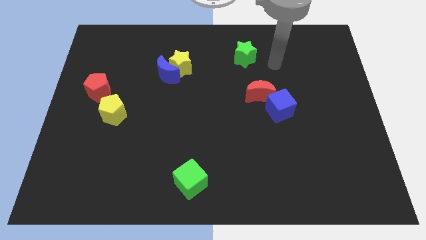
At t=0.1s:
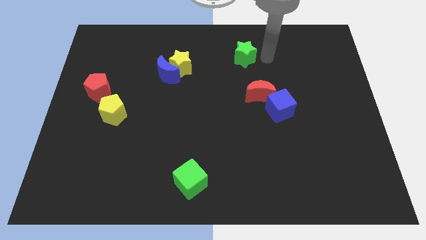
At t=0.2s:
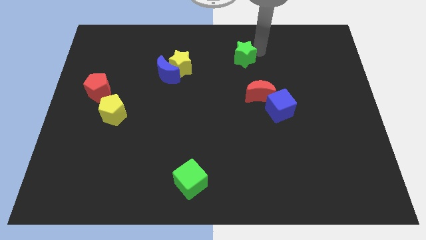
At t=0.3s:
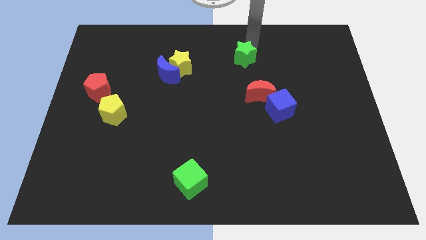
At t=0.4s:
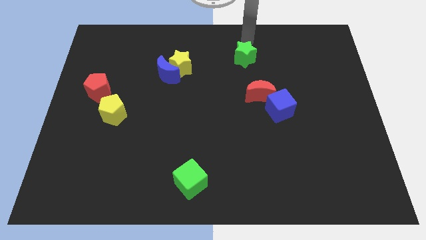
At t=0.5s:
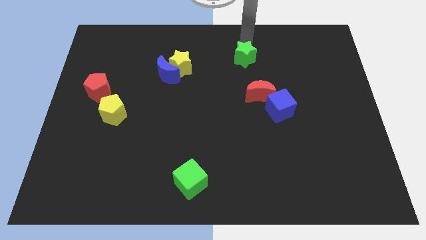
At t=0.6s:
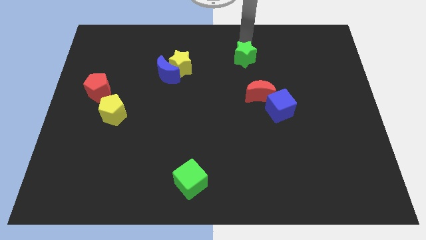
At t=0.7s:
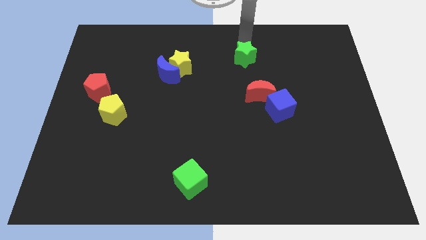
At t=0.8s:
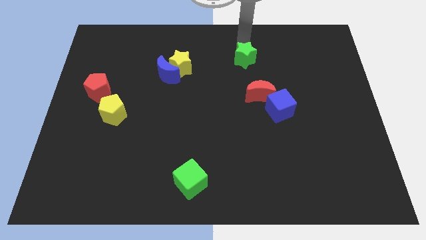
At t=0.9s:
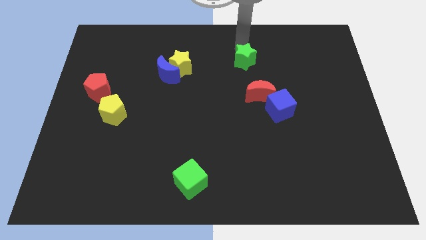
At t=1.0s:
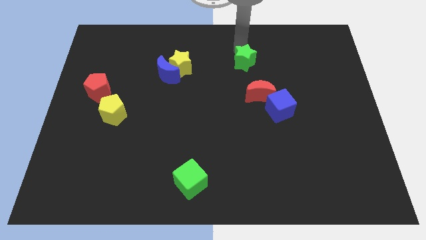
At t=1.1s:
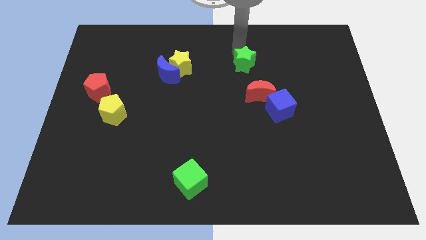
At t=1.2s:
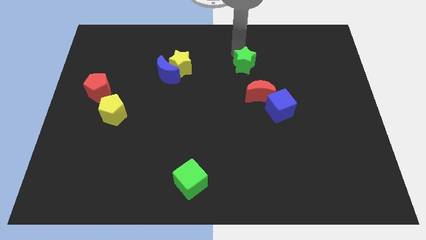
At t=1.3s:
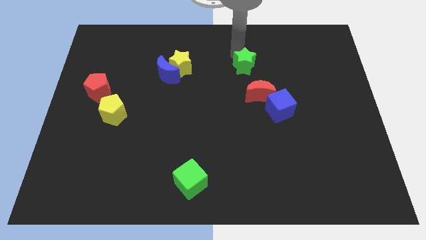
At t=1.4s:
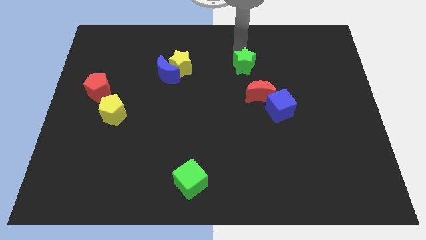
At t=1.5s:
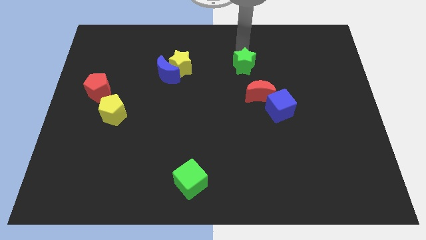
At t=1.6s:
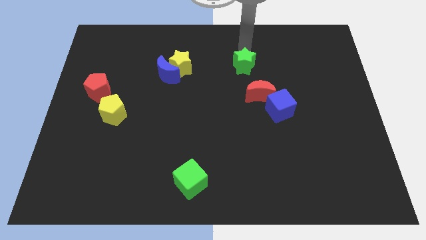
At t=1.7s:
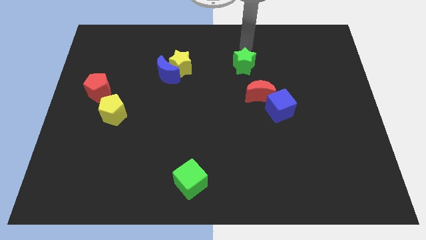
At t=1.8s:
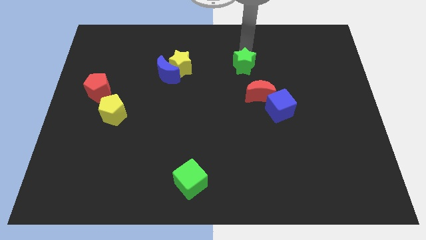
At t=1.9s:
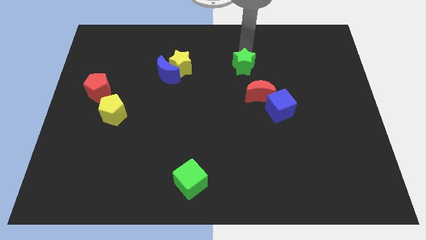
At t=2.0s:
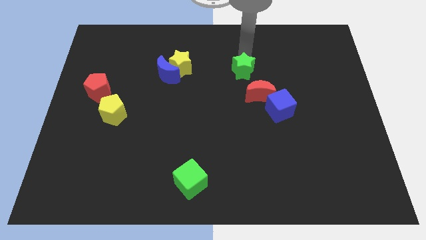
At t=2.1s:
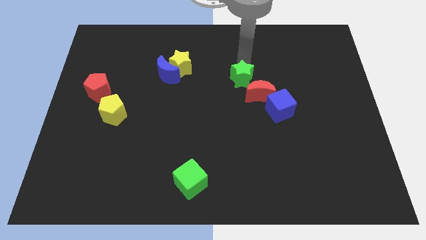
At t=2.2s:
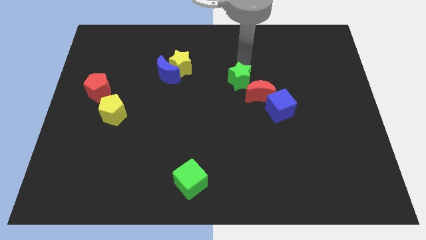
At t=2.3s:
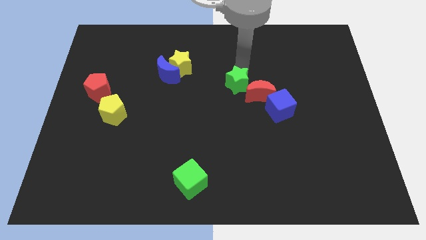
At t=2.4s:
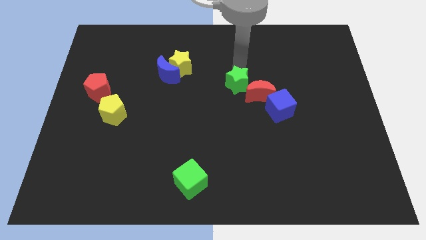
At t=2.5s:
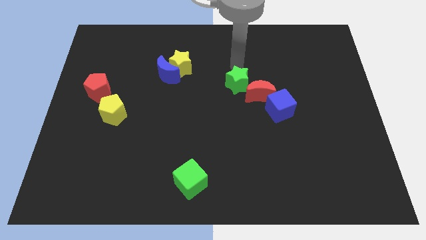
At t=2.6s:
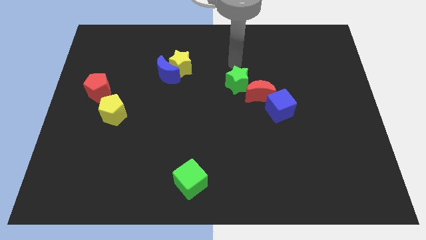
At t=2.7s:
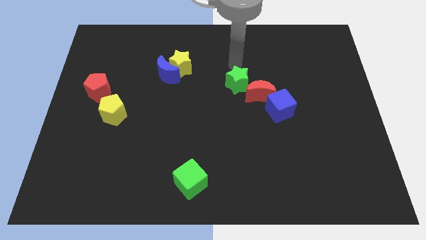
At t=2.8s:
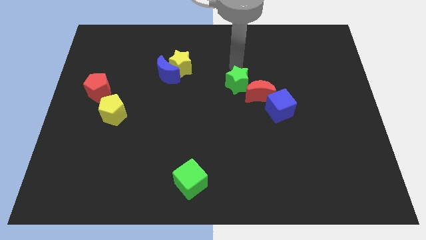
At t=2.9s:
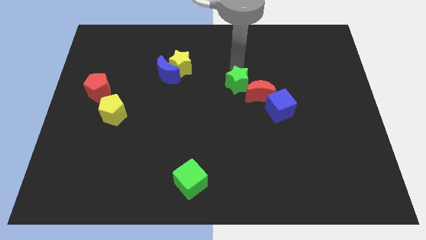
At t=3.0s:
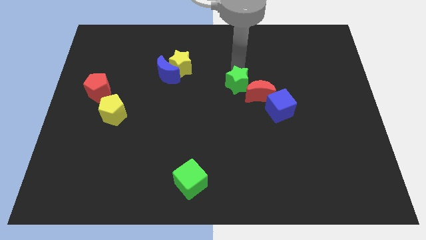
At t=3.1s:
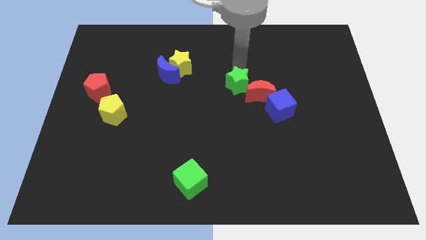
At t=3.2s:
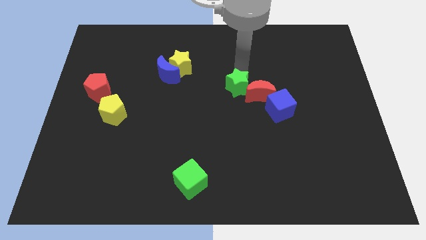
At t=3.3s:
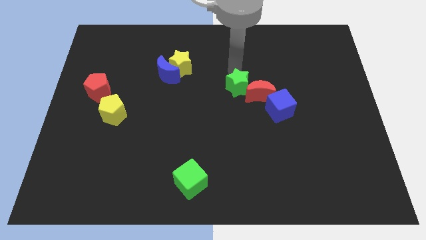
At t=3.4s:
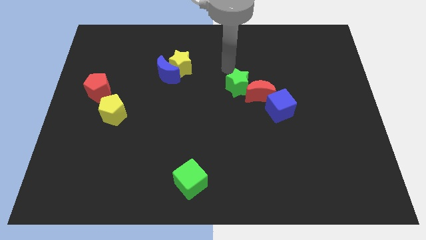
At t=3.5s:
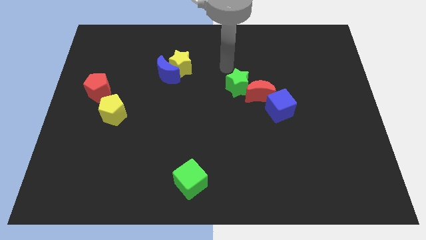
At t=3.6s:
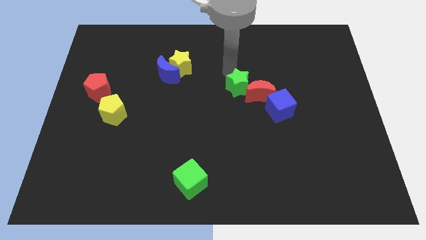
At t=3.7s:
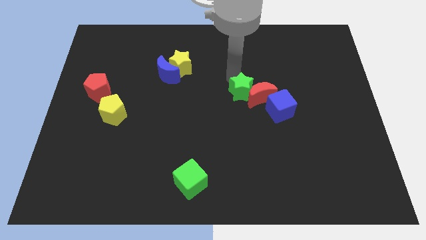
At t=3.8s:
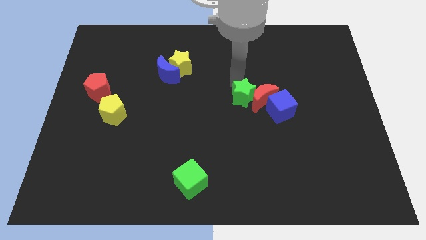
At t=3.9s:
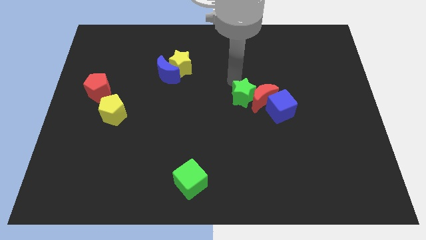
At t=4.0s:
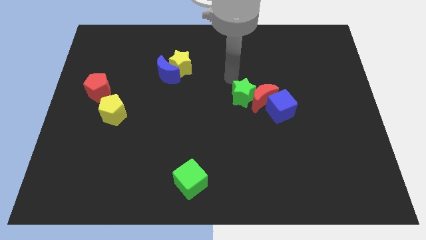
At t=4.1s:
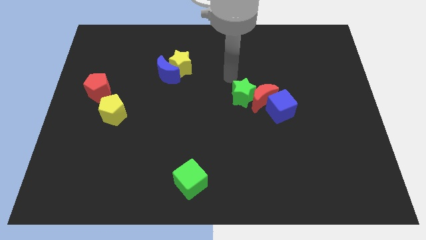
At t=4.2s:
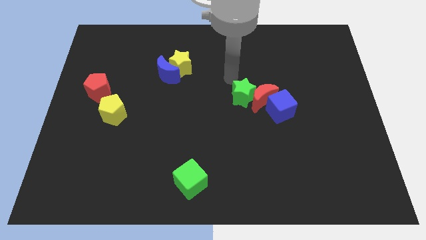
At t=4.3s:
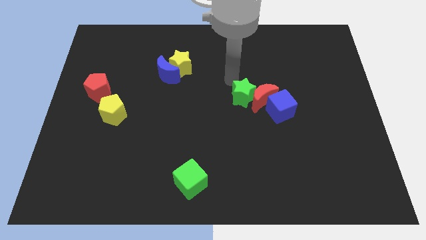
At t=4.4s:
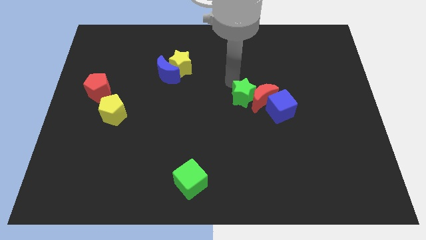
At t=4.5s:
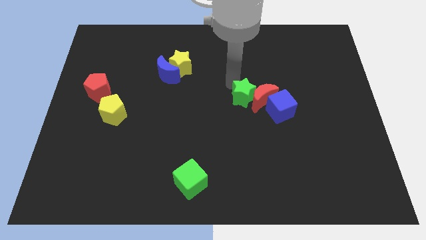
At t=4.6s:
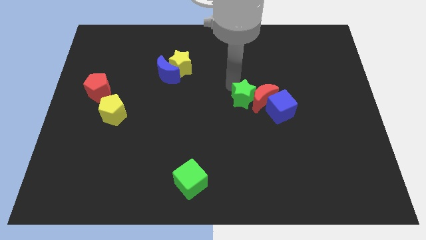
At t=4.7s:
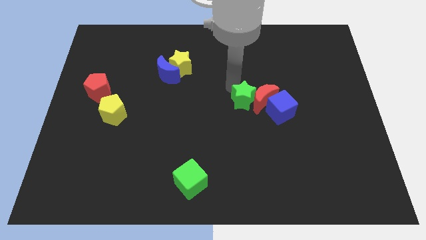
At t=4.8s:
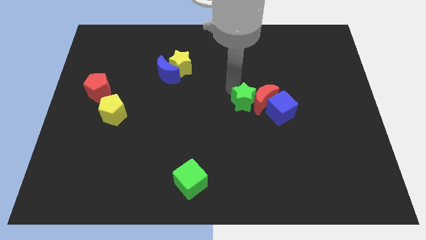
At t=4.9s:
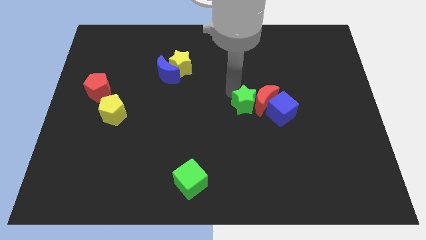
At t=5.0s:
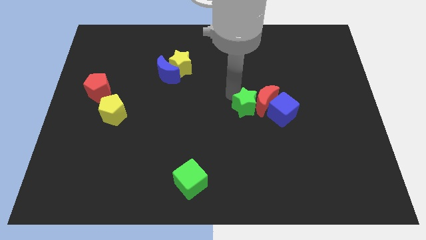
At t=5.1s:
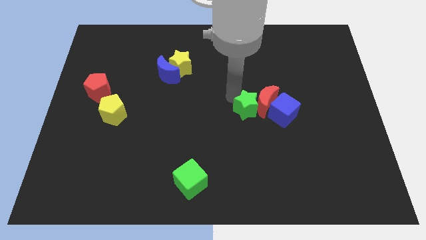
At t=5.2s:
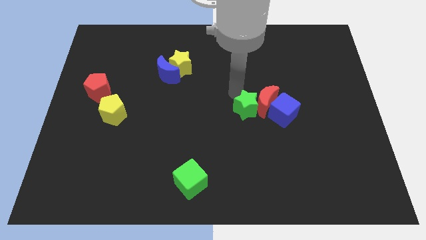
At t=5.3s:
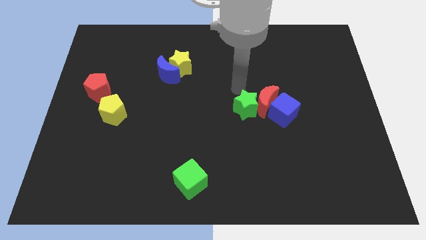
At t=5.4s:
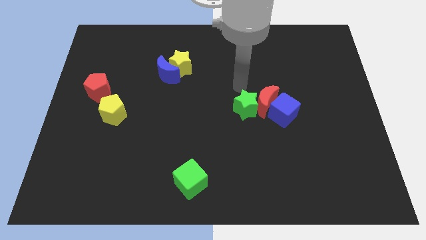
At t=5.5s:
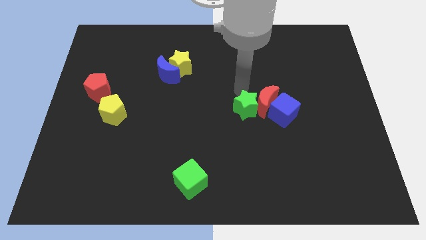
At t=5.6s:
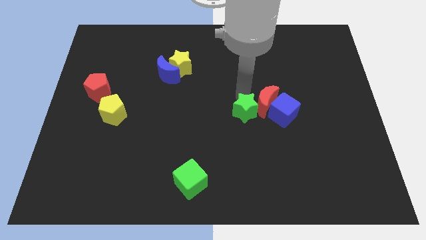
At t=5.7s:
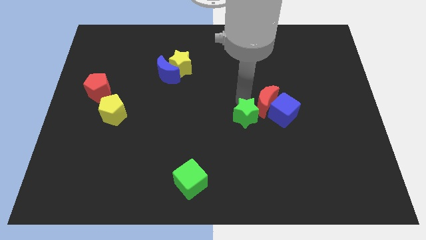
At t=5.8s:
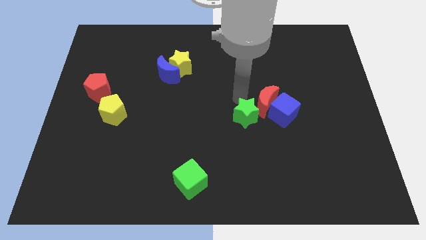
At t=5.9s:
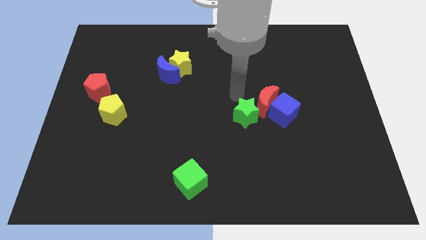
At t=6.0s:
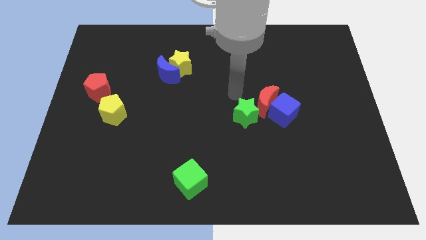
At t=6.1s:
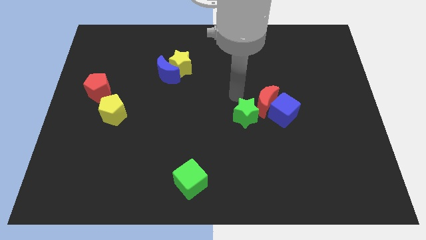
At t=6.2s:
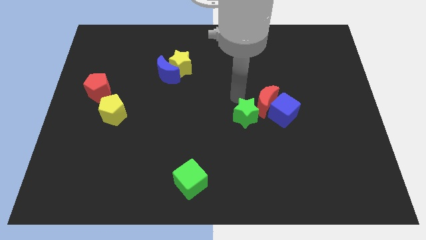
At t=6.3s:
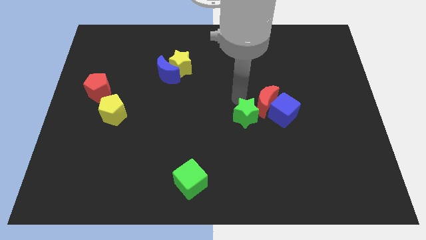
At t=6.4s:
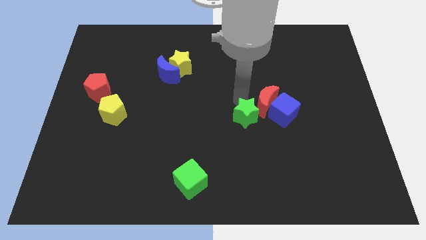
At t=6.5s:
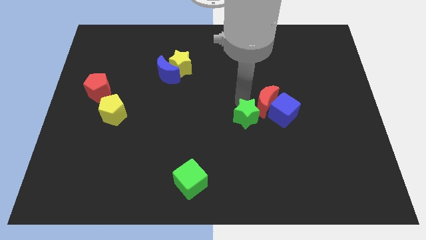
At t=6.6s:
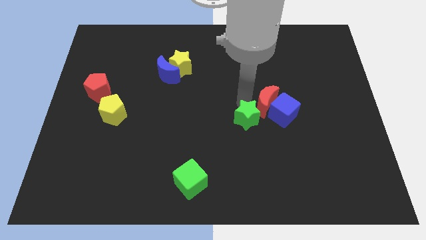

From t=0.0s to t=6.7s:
push the green star downwards

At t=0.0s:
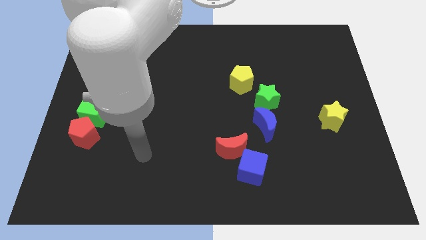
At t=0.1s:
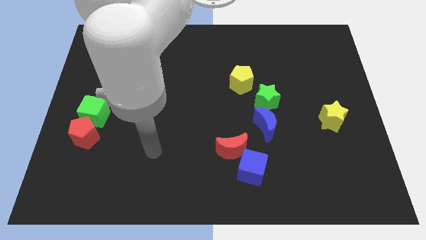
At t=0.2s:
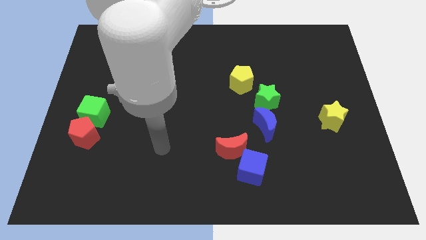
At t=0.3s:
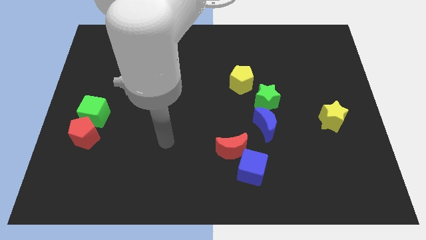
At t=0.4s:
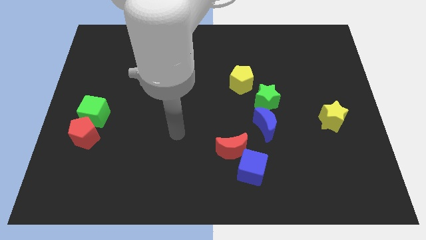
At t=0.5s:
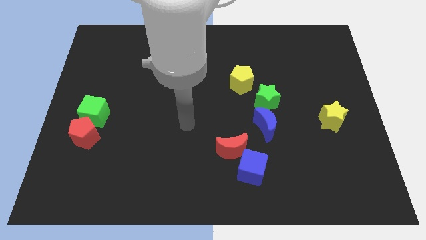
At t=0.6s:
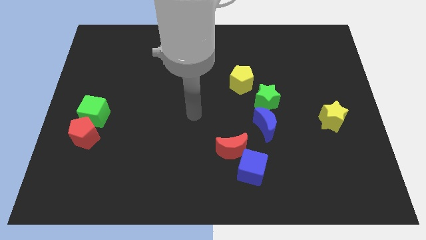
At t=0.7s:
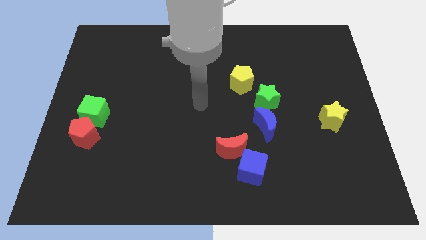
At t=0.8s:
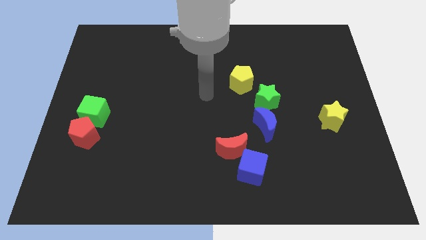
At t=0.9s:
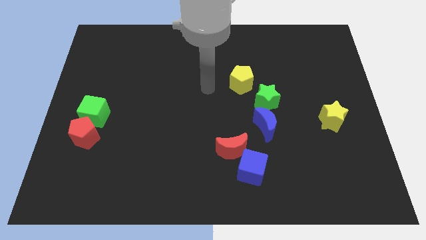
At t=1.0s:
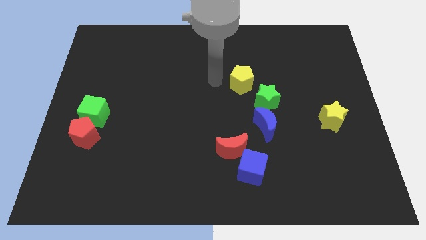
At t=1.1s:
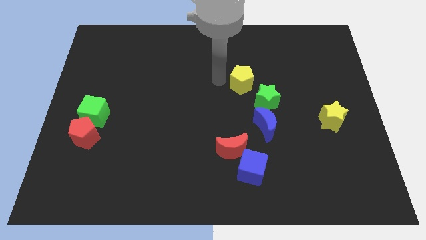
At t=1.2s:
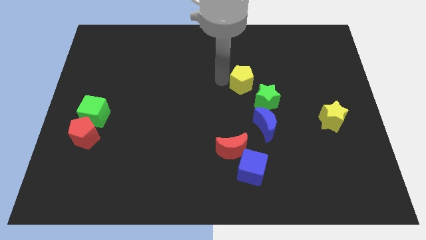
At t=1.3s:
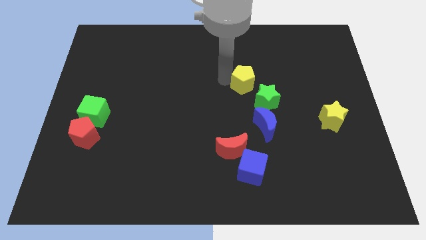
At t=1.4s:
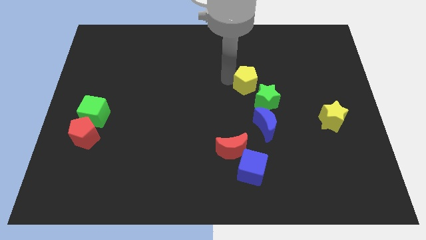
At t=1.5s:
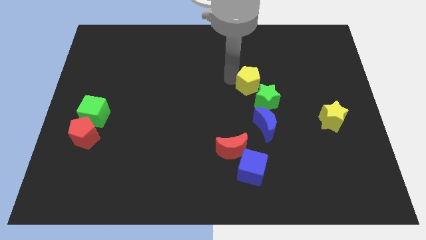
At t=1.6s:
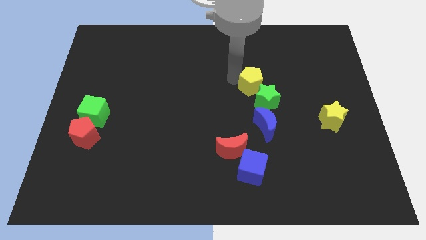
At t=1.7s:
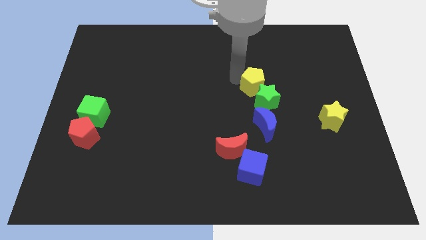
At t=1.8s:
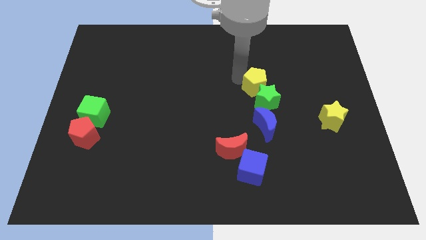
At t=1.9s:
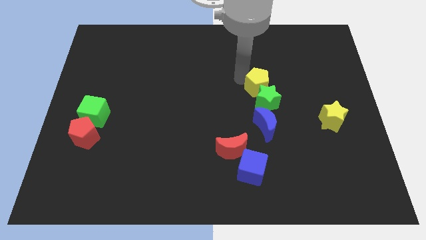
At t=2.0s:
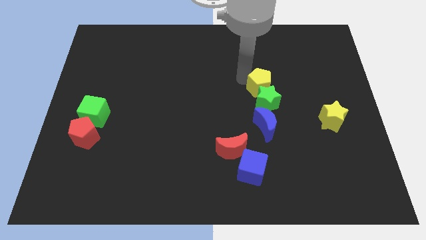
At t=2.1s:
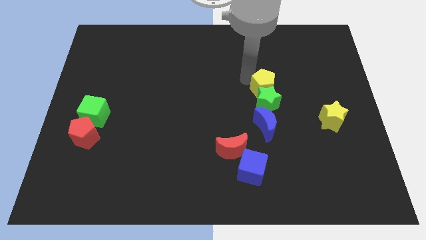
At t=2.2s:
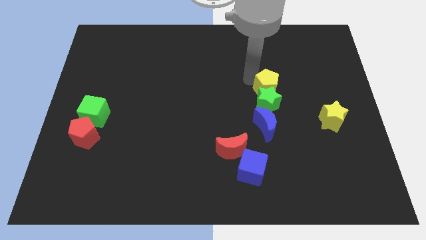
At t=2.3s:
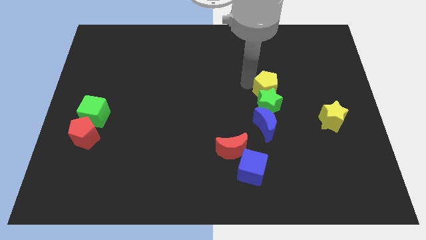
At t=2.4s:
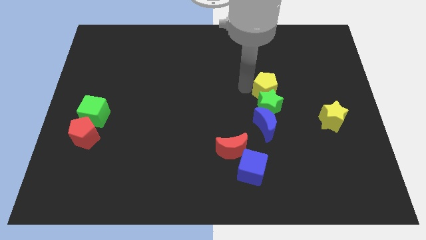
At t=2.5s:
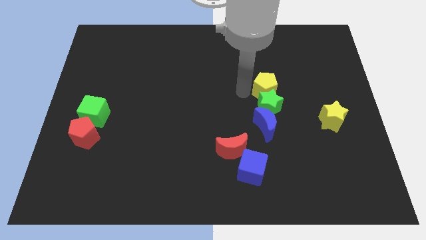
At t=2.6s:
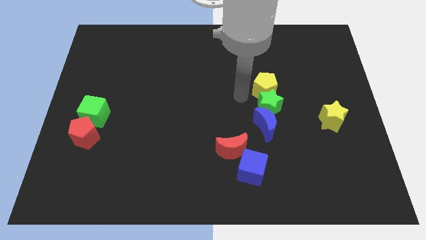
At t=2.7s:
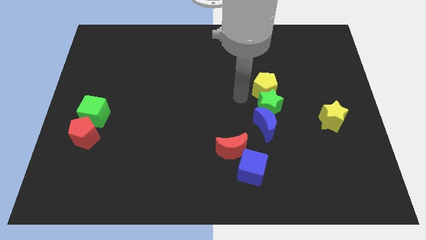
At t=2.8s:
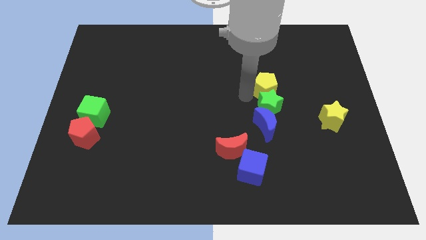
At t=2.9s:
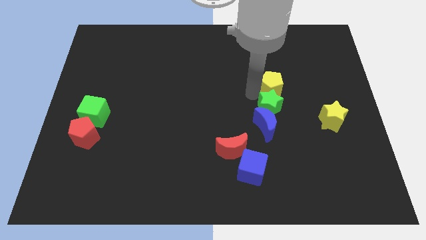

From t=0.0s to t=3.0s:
push the yellow pentagon a little right
